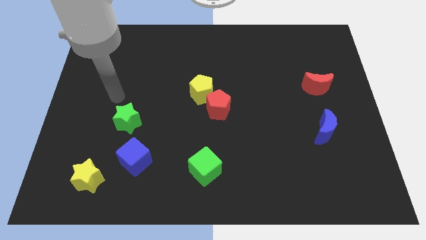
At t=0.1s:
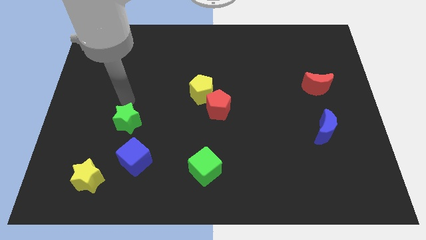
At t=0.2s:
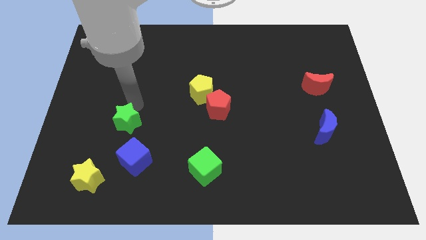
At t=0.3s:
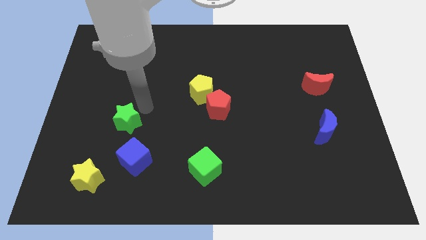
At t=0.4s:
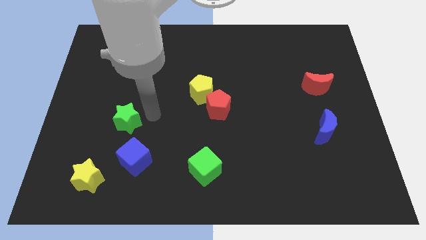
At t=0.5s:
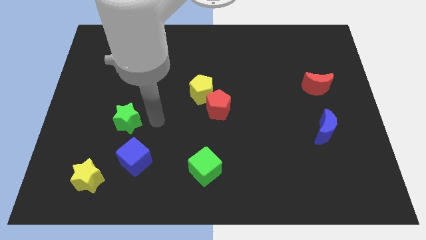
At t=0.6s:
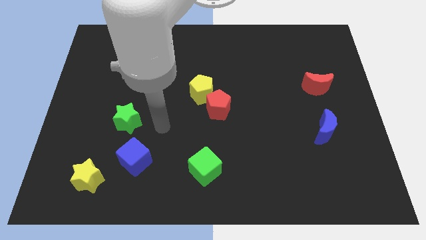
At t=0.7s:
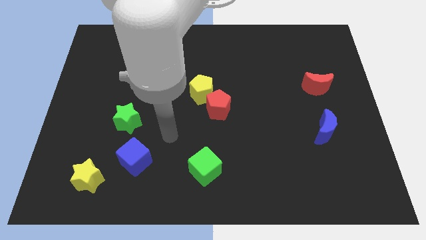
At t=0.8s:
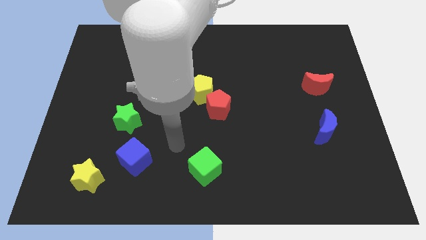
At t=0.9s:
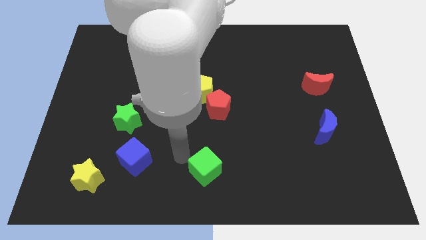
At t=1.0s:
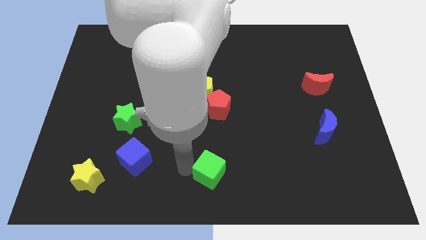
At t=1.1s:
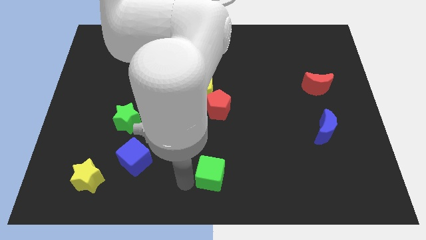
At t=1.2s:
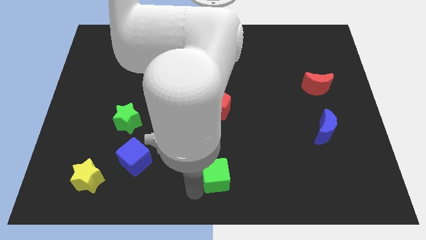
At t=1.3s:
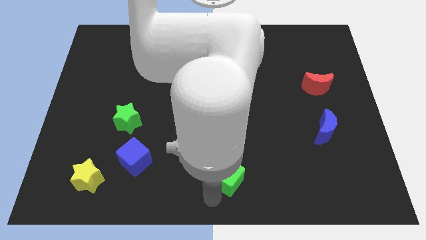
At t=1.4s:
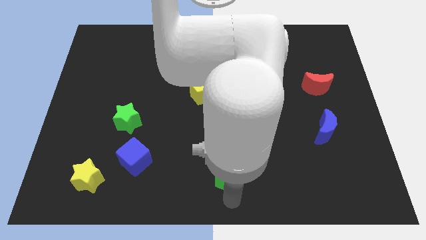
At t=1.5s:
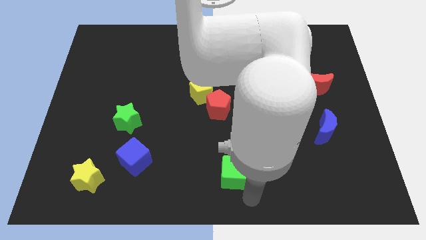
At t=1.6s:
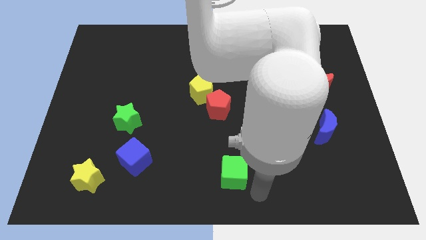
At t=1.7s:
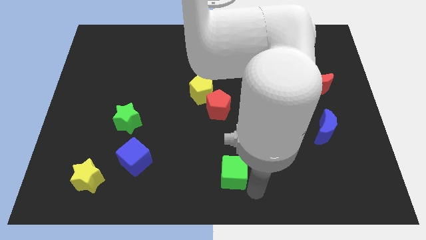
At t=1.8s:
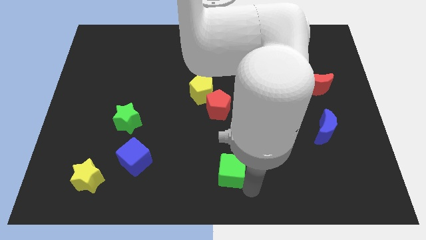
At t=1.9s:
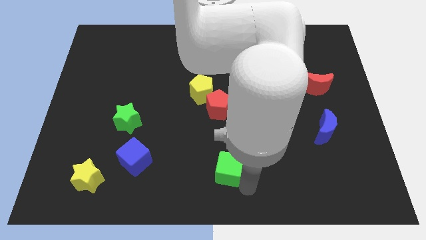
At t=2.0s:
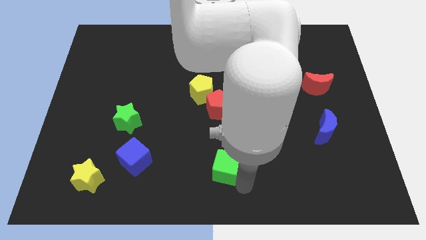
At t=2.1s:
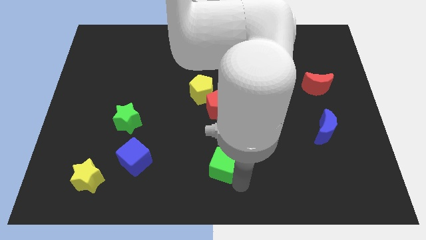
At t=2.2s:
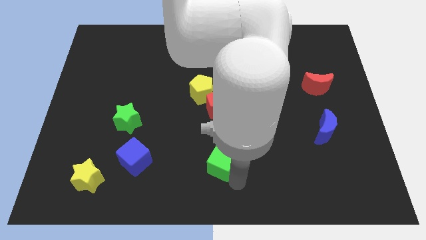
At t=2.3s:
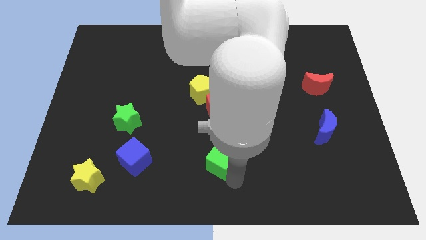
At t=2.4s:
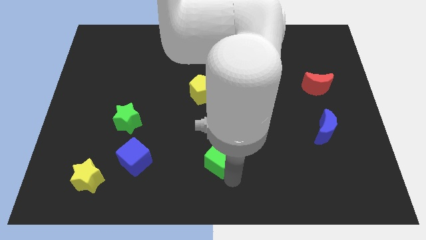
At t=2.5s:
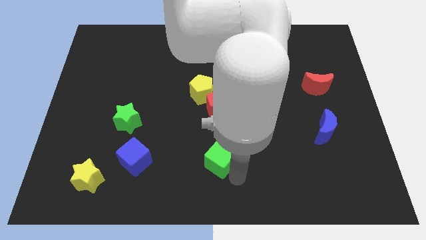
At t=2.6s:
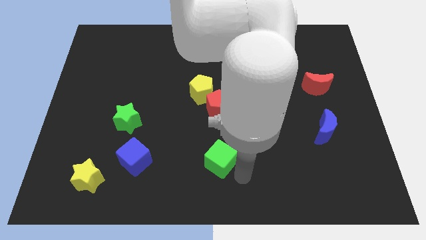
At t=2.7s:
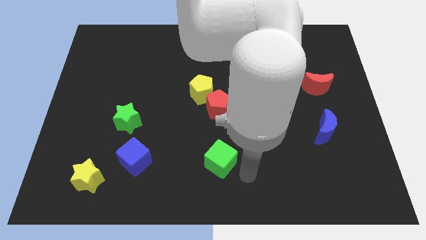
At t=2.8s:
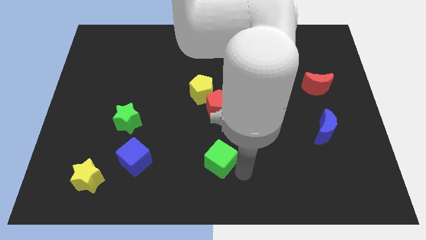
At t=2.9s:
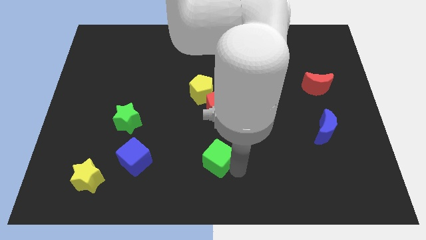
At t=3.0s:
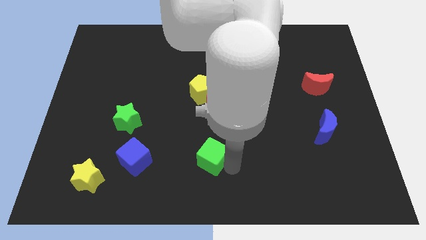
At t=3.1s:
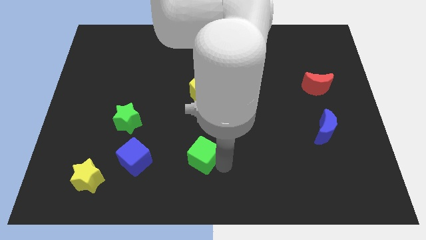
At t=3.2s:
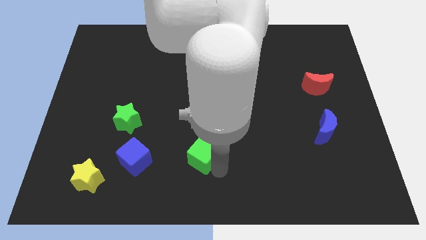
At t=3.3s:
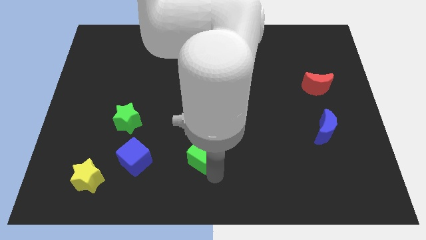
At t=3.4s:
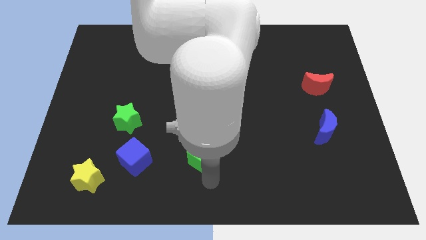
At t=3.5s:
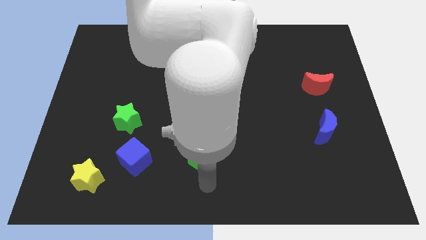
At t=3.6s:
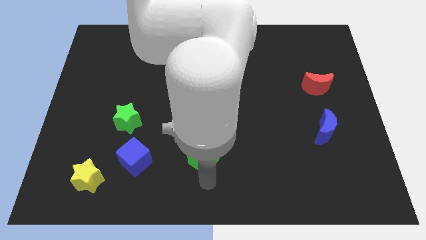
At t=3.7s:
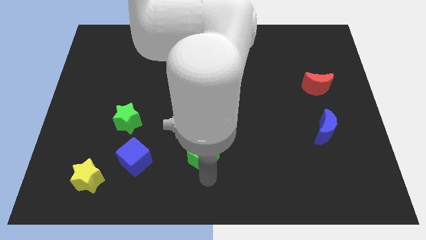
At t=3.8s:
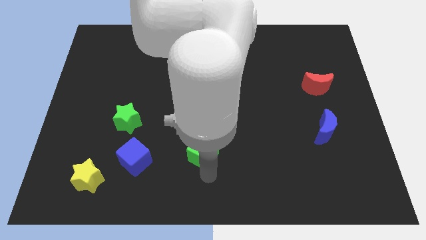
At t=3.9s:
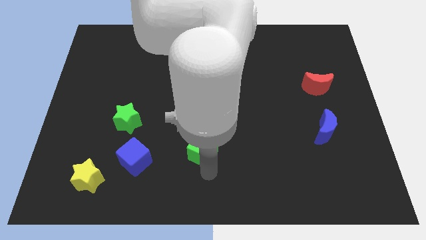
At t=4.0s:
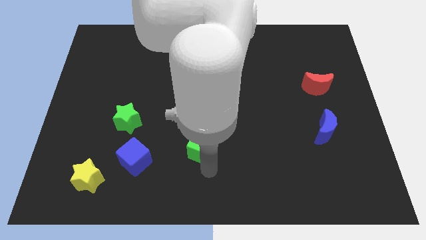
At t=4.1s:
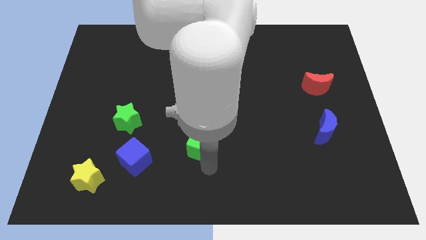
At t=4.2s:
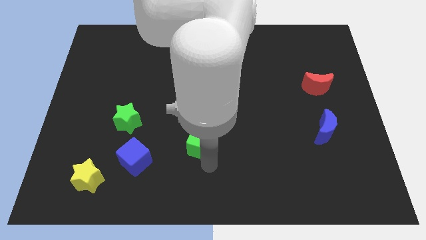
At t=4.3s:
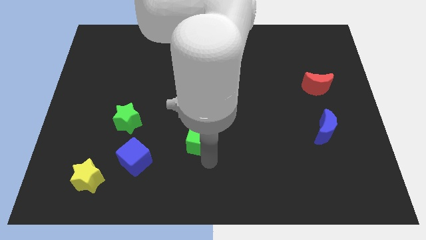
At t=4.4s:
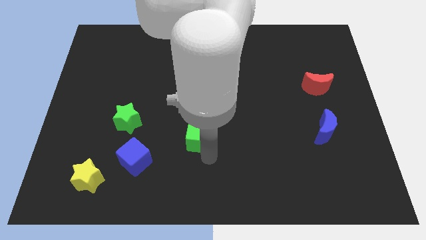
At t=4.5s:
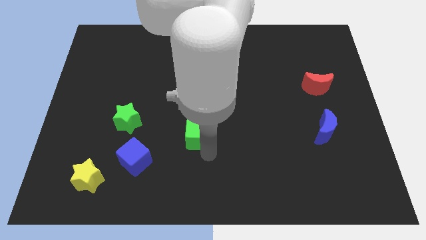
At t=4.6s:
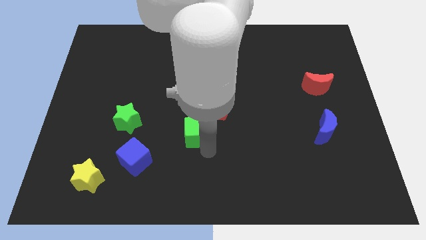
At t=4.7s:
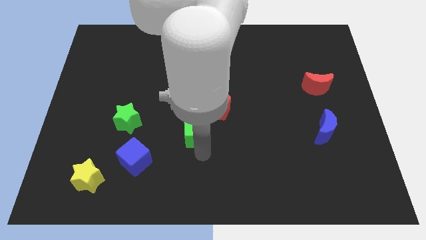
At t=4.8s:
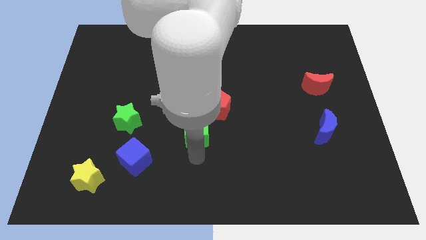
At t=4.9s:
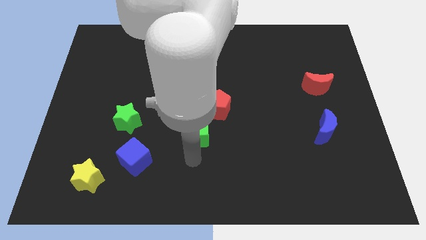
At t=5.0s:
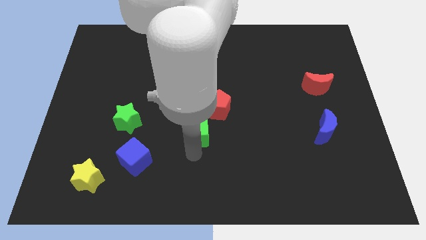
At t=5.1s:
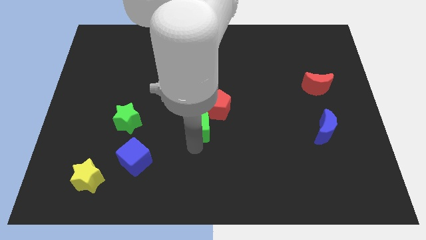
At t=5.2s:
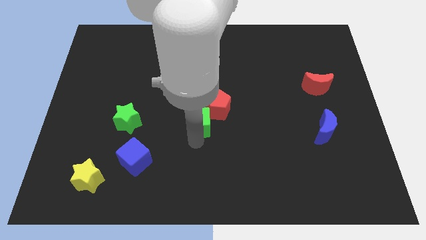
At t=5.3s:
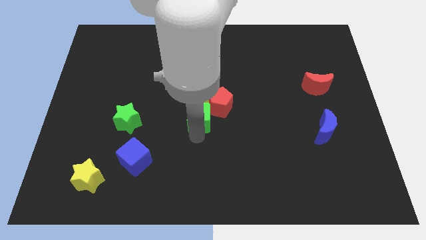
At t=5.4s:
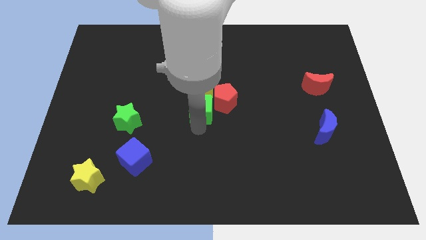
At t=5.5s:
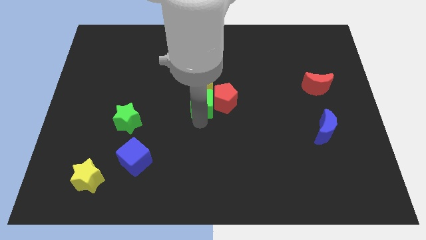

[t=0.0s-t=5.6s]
slide the green cube next to the yellow pentagon

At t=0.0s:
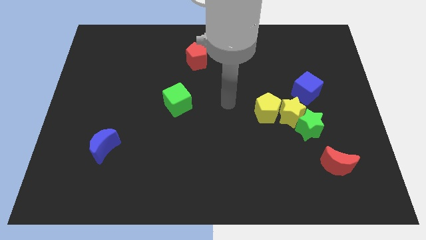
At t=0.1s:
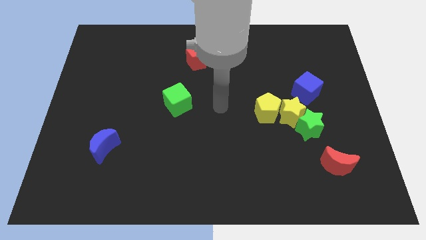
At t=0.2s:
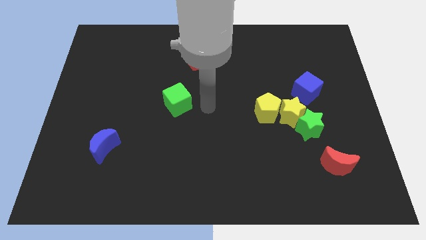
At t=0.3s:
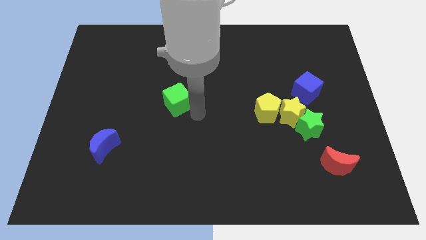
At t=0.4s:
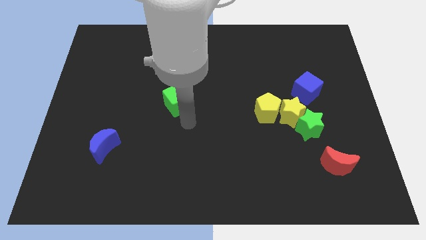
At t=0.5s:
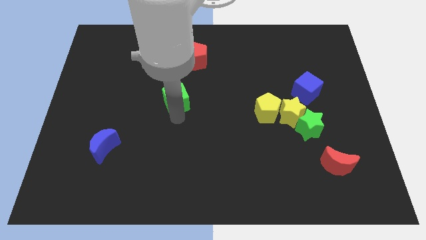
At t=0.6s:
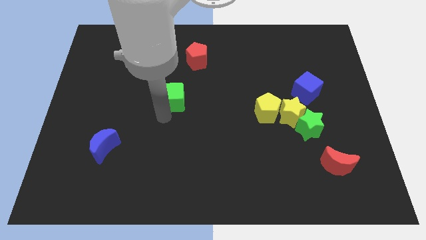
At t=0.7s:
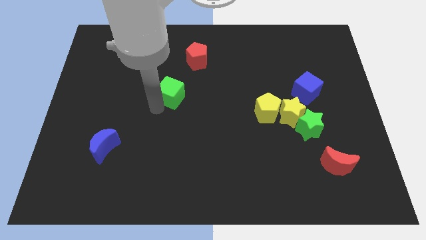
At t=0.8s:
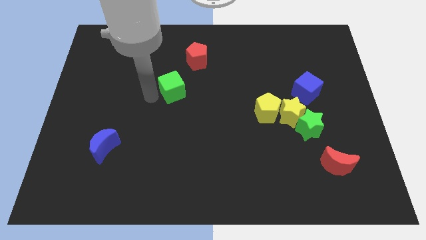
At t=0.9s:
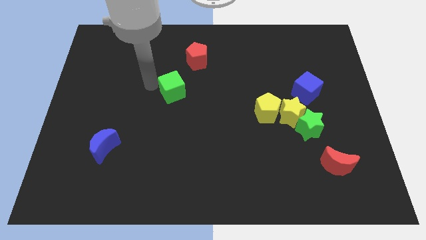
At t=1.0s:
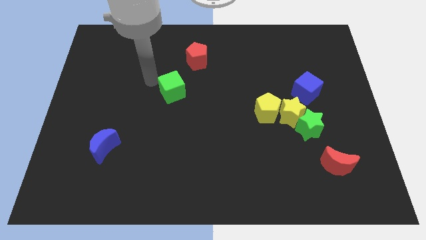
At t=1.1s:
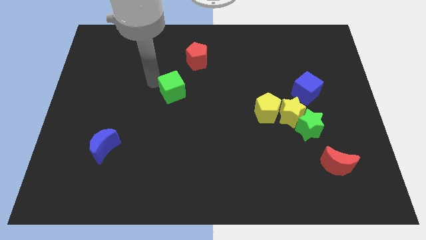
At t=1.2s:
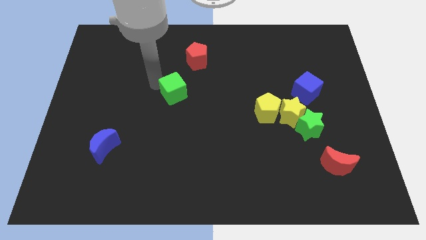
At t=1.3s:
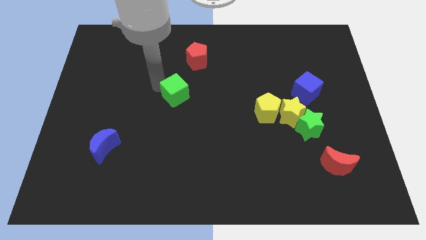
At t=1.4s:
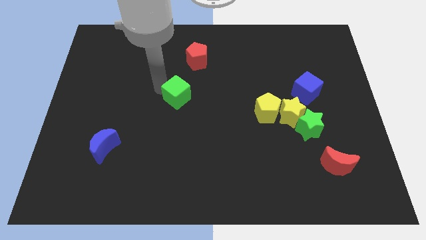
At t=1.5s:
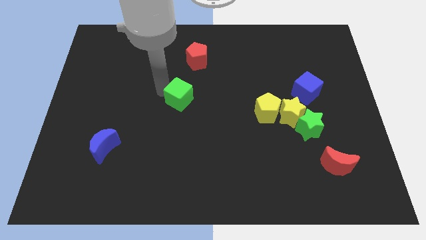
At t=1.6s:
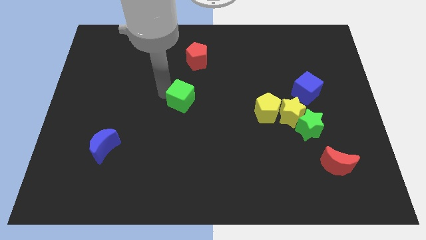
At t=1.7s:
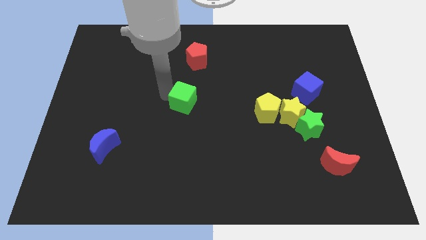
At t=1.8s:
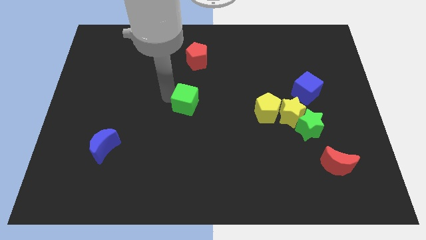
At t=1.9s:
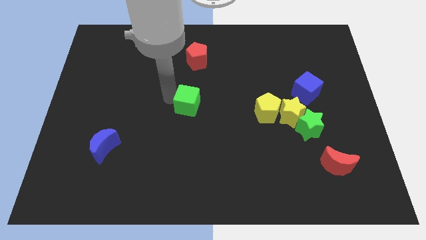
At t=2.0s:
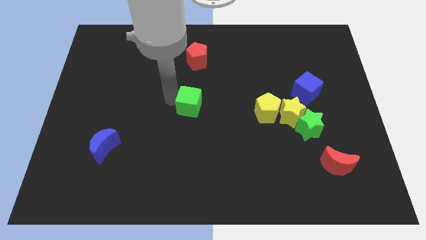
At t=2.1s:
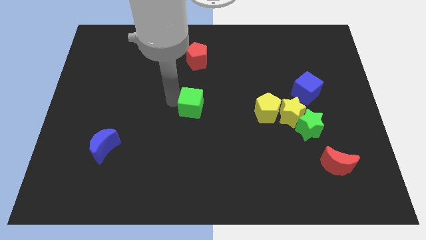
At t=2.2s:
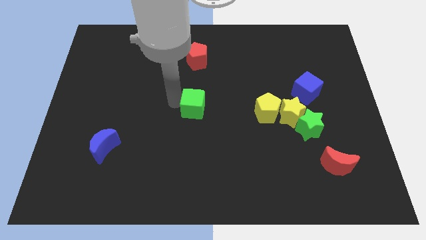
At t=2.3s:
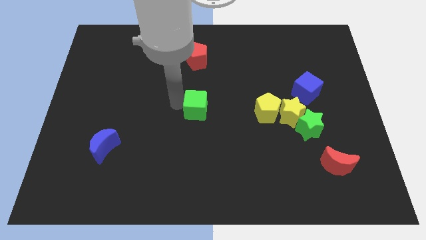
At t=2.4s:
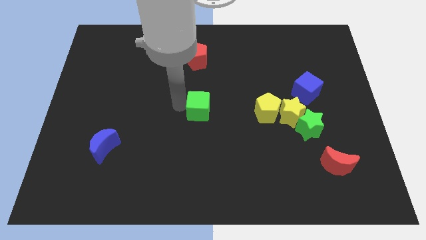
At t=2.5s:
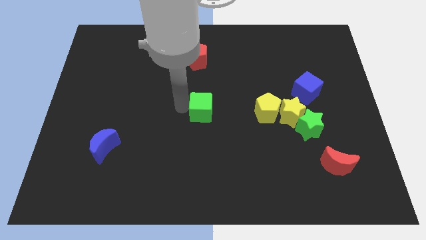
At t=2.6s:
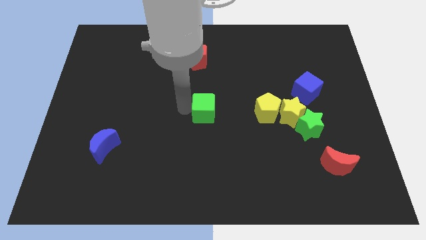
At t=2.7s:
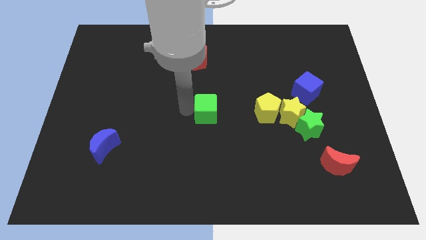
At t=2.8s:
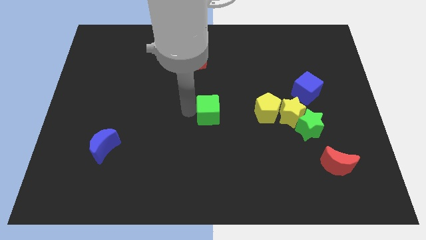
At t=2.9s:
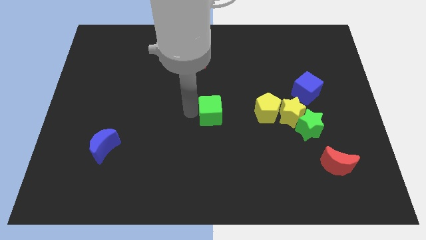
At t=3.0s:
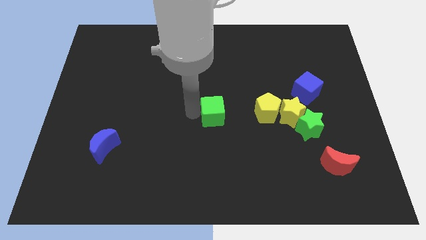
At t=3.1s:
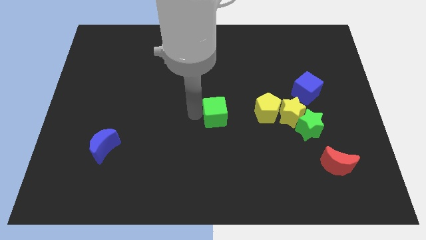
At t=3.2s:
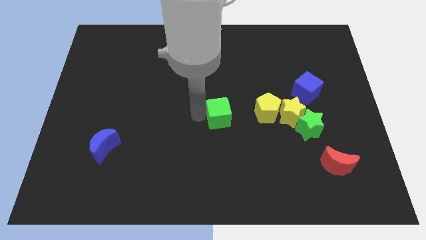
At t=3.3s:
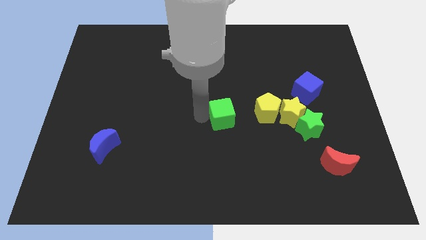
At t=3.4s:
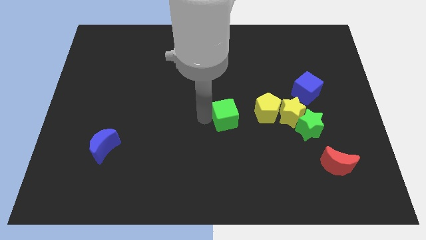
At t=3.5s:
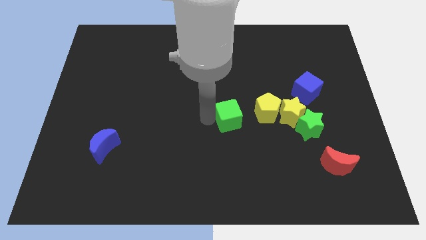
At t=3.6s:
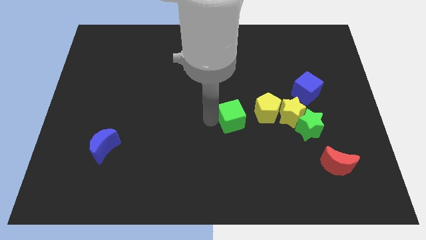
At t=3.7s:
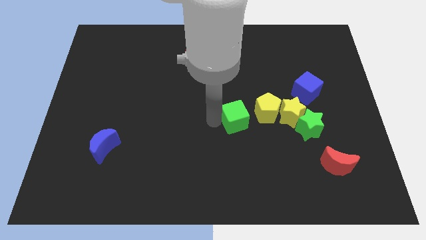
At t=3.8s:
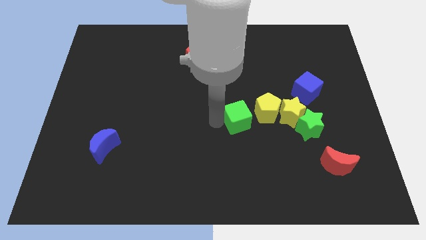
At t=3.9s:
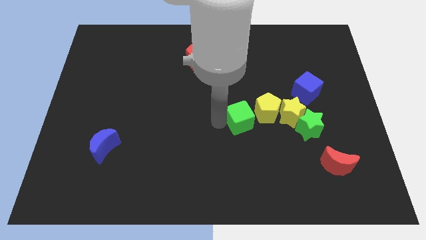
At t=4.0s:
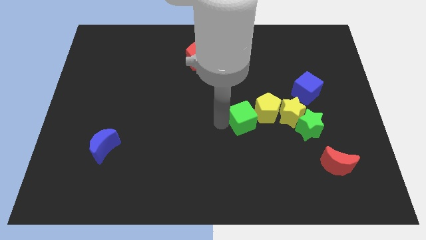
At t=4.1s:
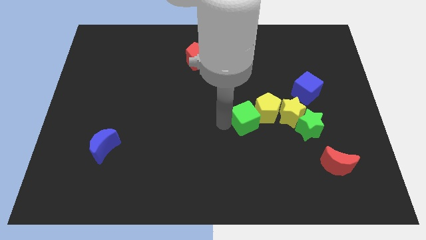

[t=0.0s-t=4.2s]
put the green cube to the yellow pentagon
